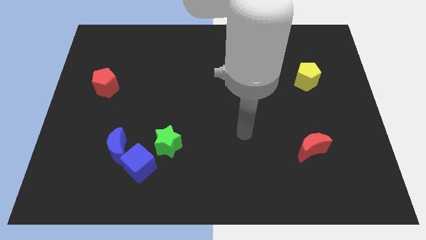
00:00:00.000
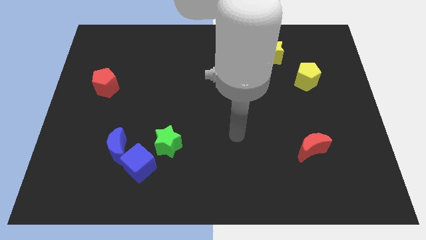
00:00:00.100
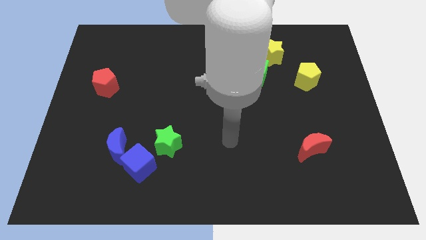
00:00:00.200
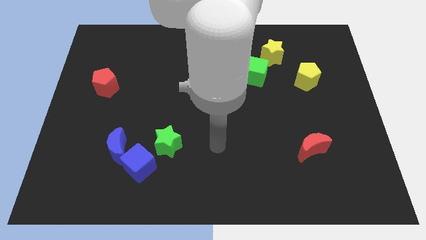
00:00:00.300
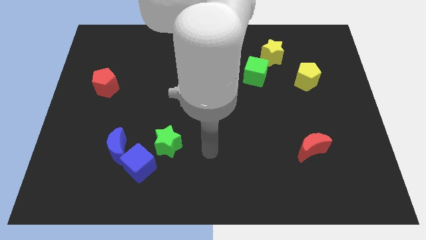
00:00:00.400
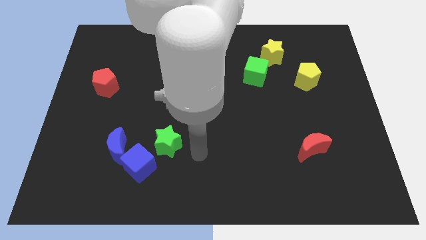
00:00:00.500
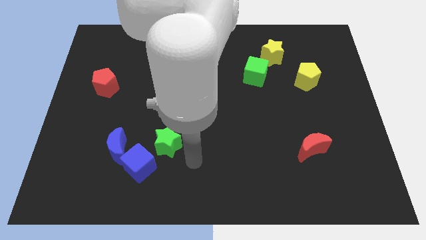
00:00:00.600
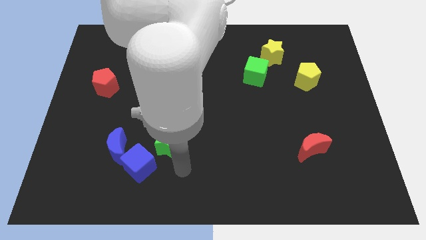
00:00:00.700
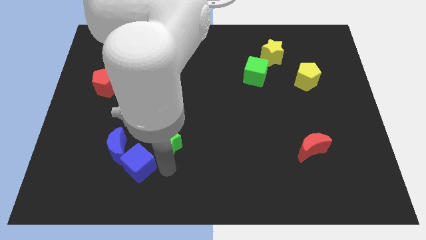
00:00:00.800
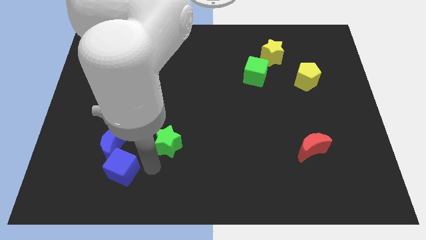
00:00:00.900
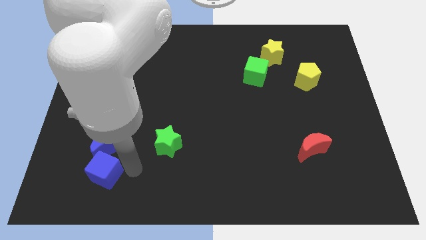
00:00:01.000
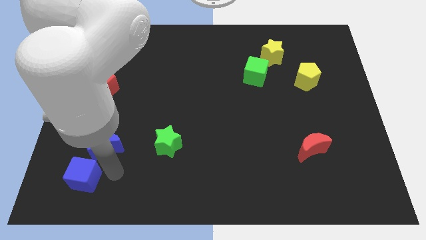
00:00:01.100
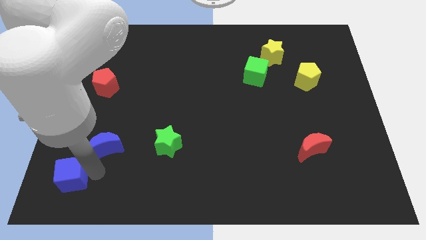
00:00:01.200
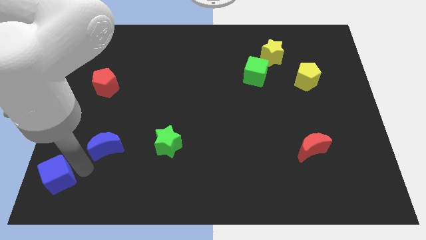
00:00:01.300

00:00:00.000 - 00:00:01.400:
separate the blue moon from the blue cube

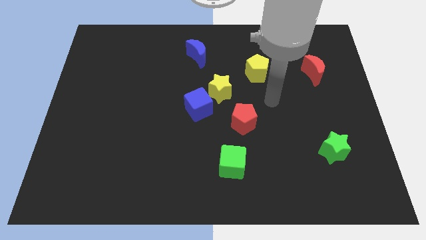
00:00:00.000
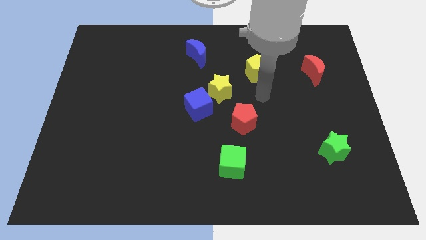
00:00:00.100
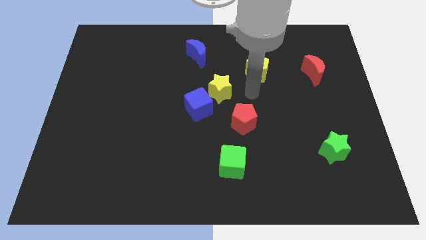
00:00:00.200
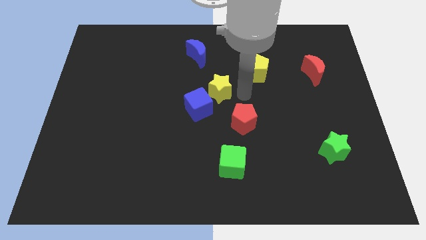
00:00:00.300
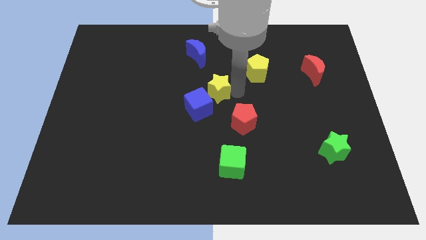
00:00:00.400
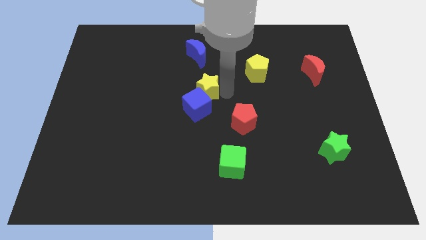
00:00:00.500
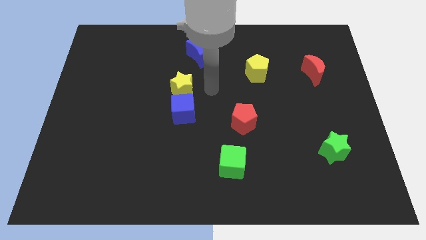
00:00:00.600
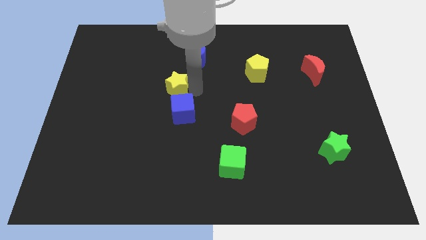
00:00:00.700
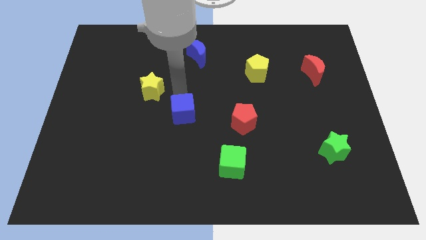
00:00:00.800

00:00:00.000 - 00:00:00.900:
move the blue cube away from the yellow star

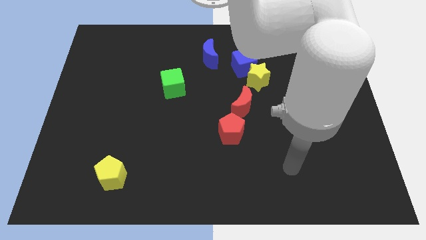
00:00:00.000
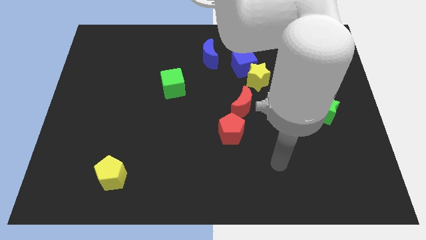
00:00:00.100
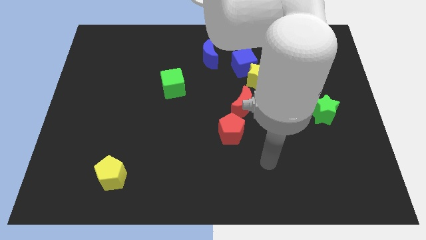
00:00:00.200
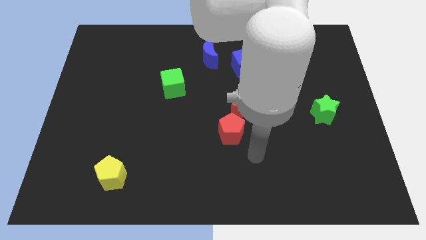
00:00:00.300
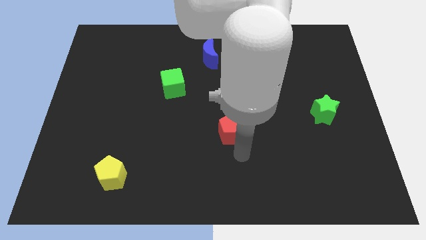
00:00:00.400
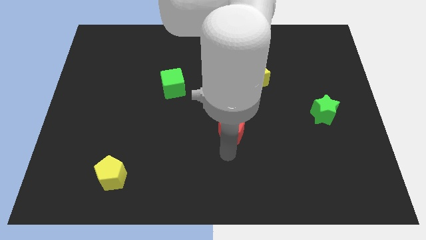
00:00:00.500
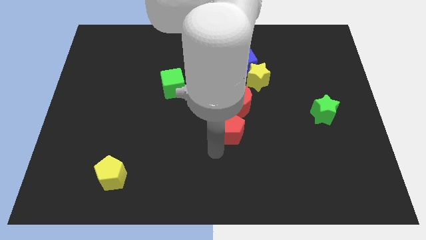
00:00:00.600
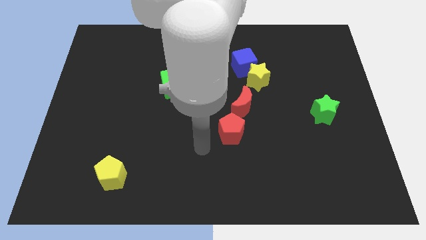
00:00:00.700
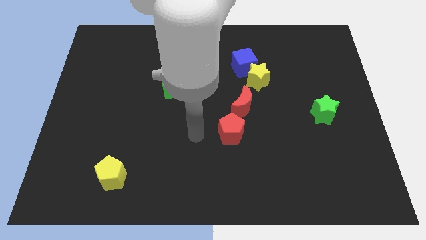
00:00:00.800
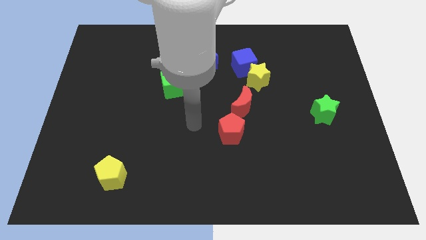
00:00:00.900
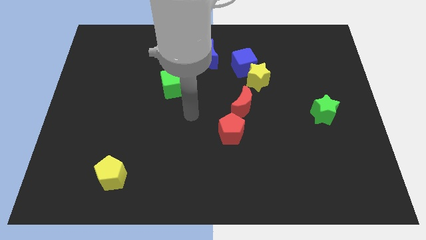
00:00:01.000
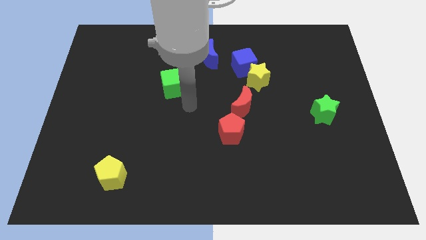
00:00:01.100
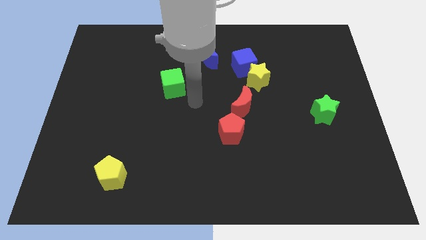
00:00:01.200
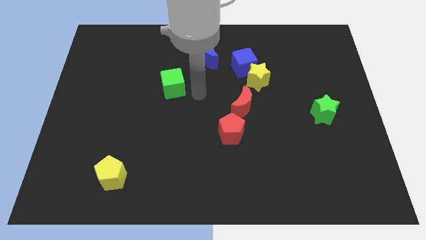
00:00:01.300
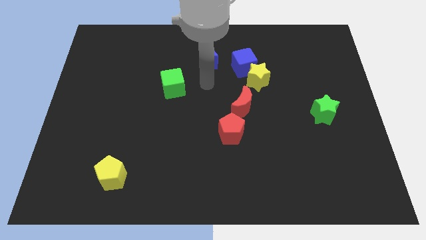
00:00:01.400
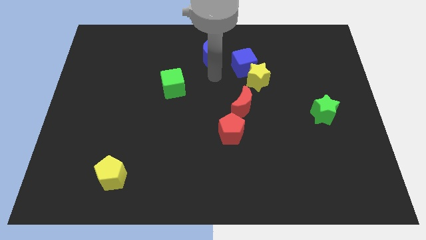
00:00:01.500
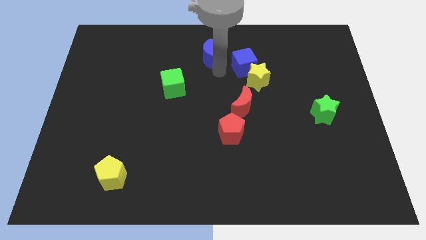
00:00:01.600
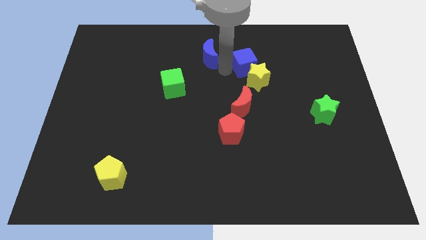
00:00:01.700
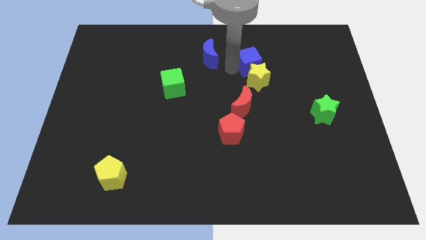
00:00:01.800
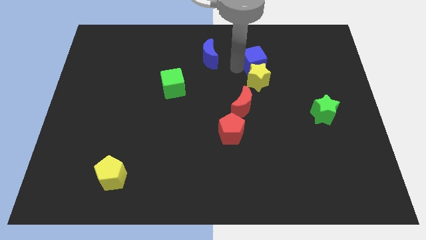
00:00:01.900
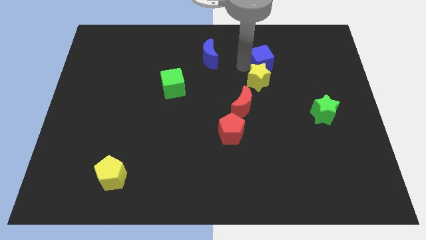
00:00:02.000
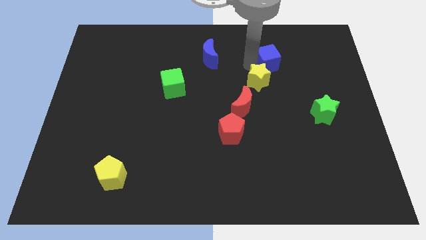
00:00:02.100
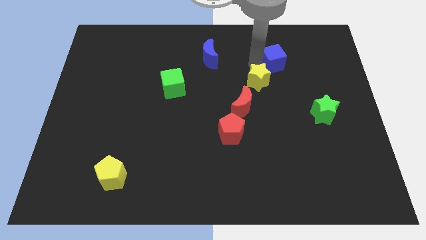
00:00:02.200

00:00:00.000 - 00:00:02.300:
move the blue cube away from the yellow star and blue moon

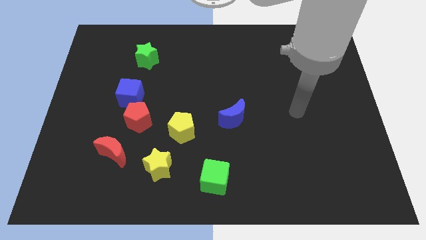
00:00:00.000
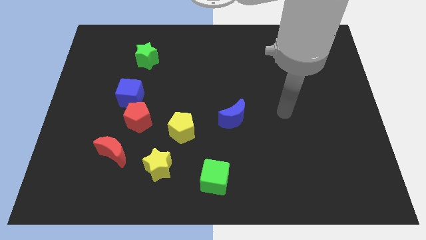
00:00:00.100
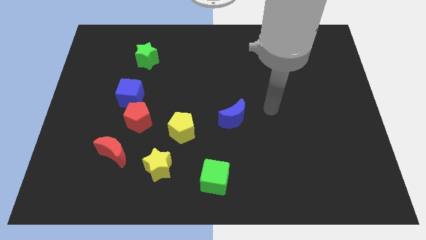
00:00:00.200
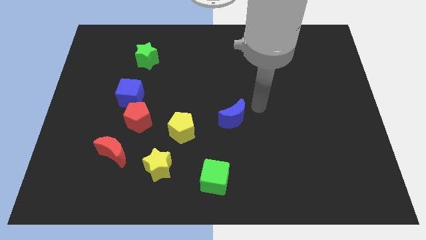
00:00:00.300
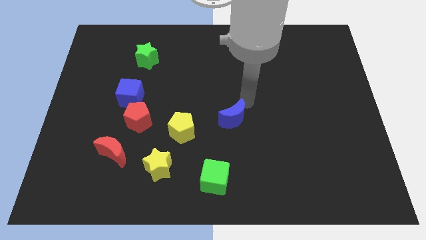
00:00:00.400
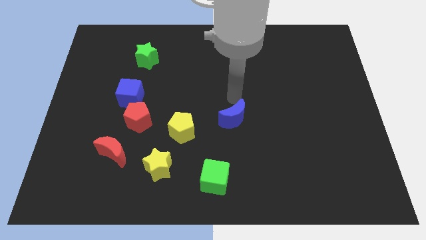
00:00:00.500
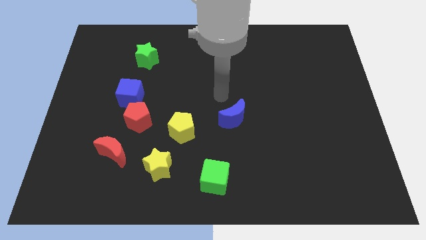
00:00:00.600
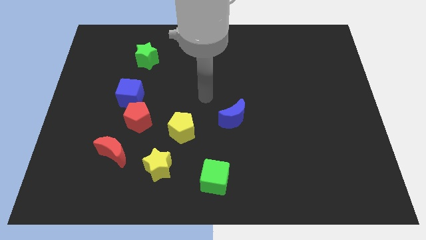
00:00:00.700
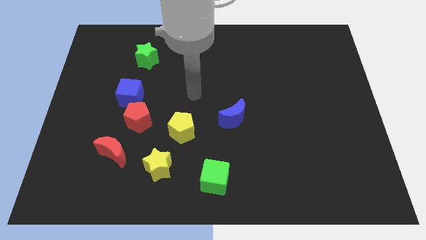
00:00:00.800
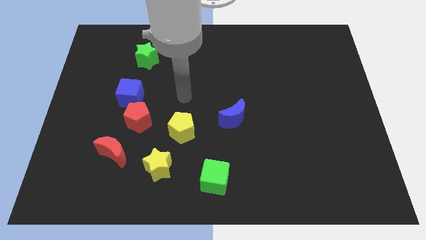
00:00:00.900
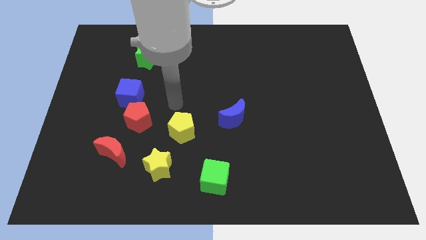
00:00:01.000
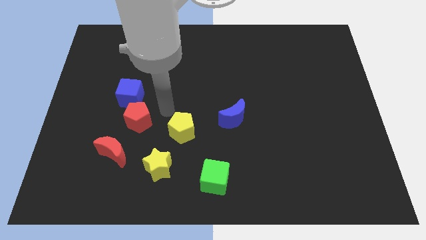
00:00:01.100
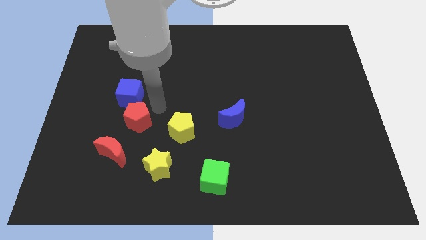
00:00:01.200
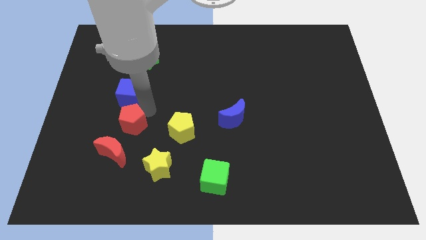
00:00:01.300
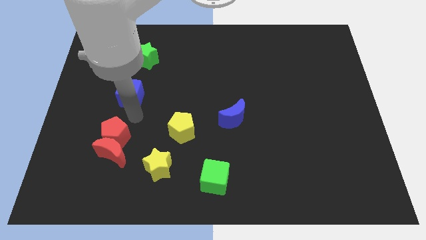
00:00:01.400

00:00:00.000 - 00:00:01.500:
pull the blue cube apart from the red pentagon

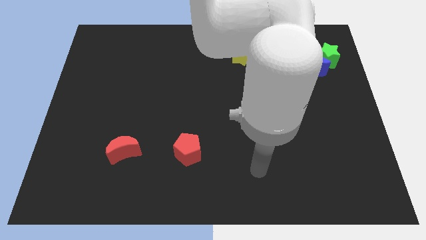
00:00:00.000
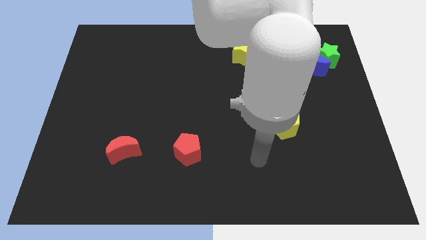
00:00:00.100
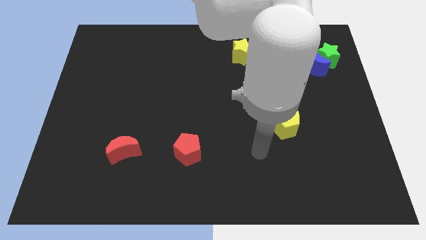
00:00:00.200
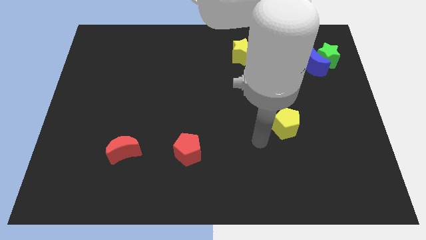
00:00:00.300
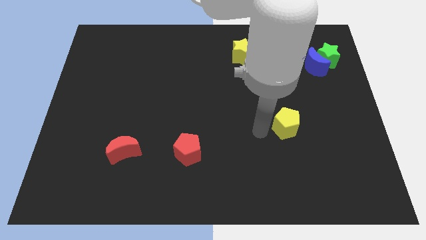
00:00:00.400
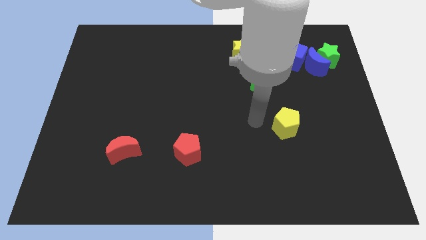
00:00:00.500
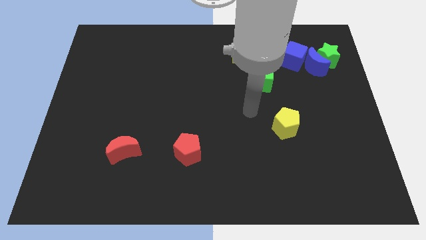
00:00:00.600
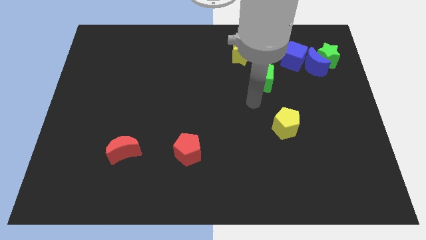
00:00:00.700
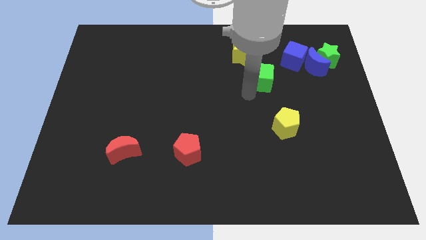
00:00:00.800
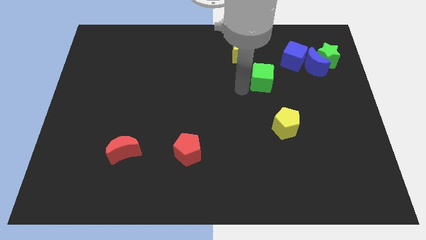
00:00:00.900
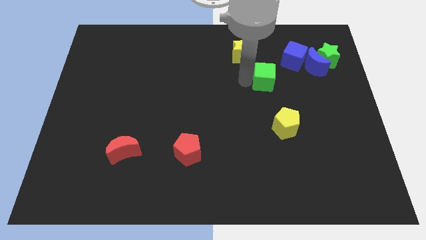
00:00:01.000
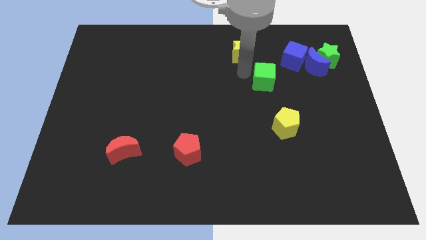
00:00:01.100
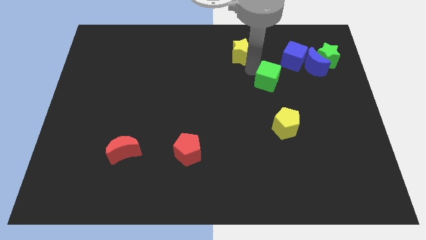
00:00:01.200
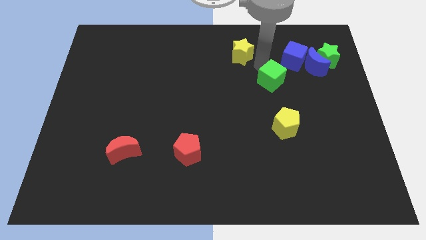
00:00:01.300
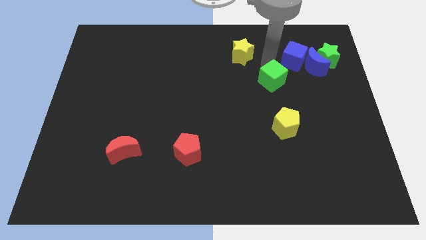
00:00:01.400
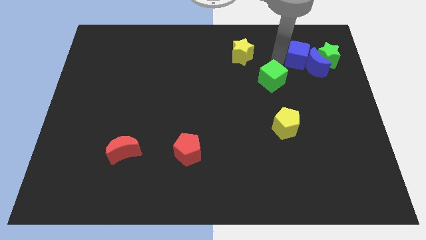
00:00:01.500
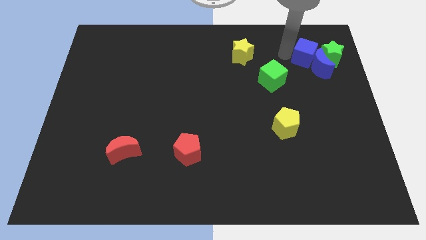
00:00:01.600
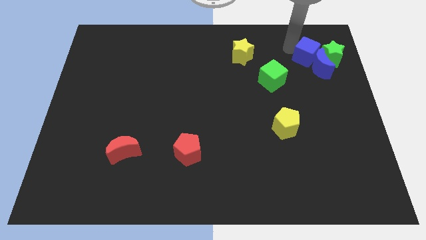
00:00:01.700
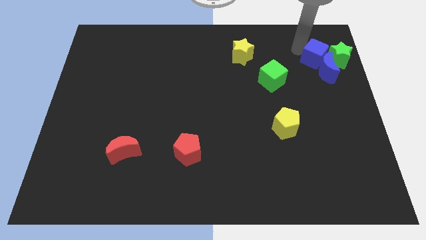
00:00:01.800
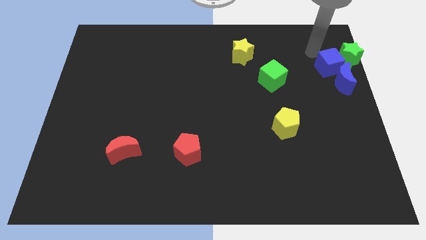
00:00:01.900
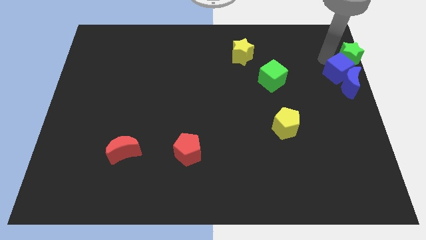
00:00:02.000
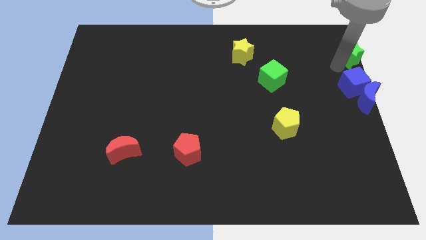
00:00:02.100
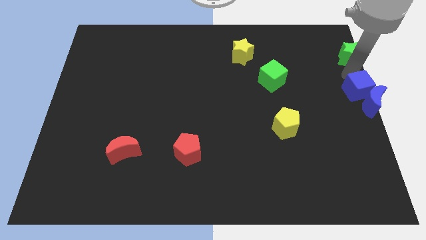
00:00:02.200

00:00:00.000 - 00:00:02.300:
pull the blue moon apart from the green star and blue cube

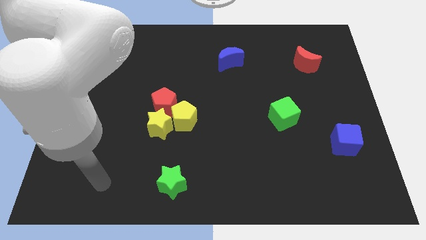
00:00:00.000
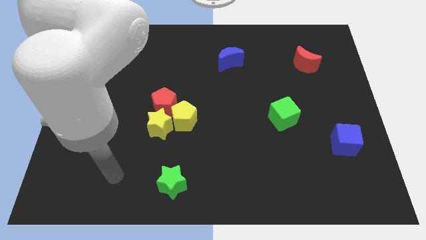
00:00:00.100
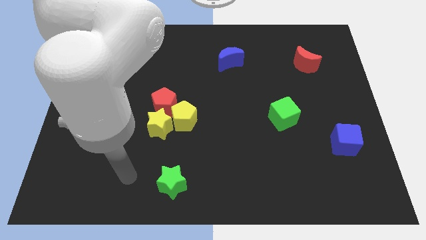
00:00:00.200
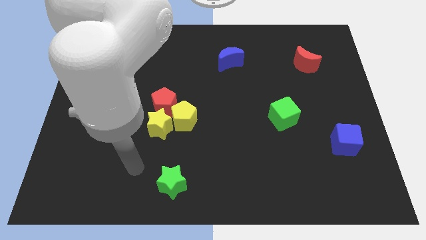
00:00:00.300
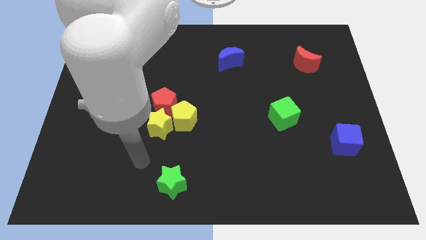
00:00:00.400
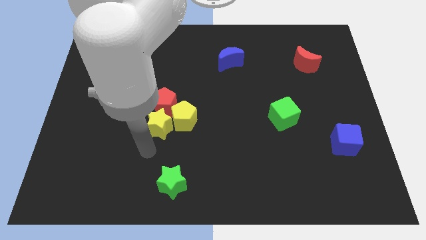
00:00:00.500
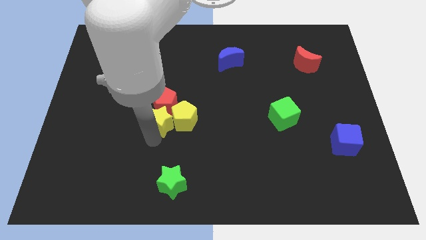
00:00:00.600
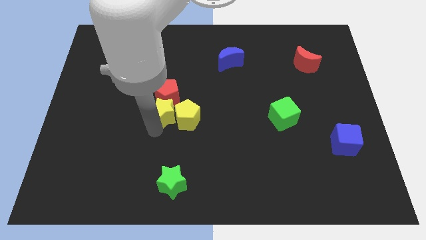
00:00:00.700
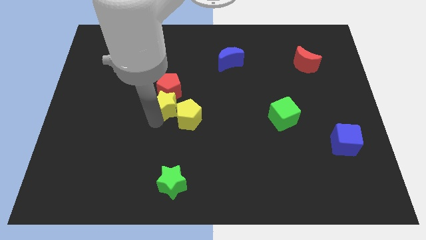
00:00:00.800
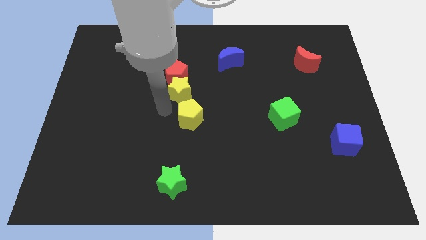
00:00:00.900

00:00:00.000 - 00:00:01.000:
pull the yellow pentagon apart from the yellow star and red pentagon
